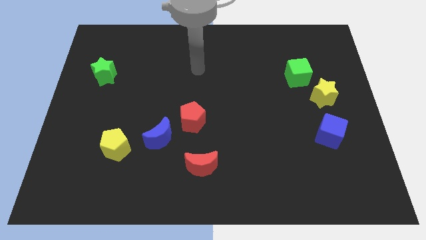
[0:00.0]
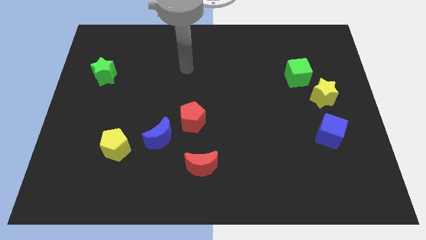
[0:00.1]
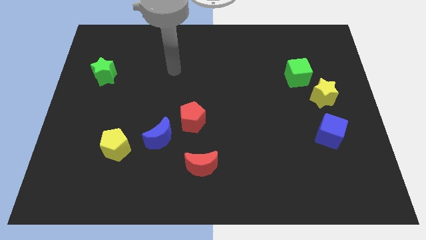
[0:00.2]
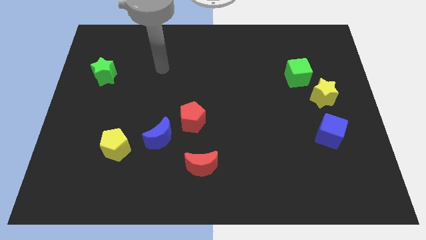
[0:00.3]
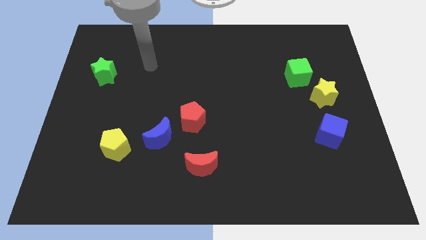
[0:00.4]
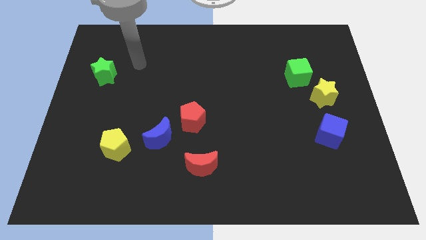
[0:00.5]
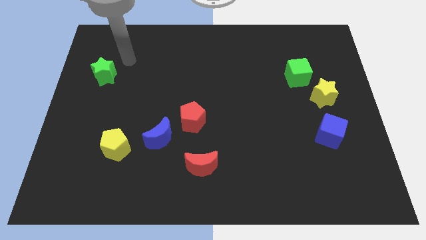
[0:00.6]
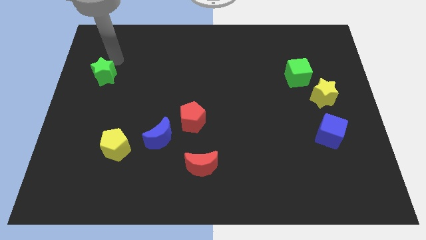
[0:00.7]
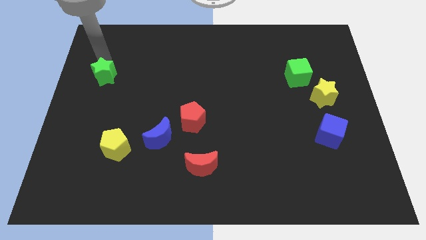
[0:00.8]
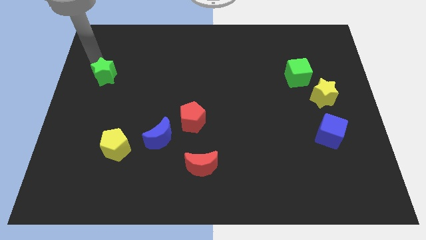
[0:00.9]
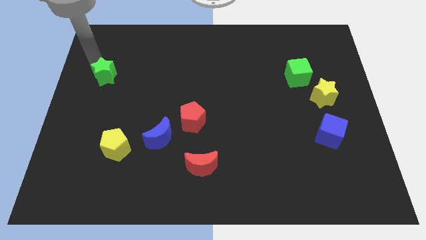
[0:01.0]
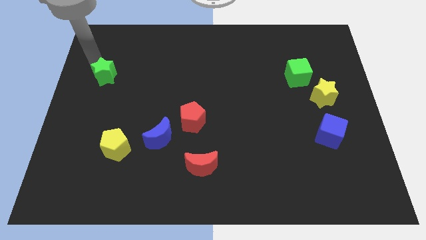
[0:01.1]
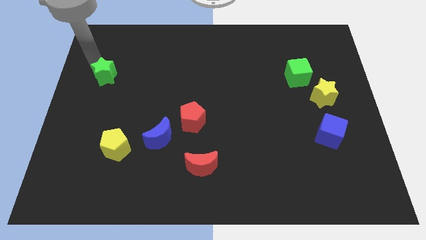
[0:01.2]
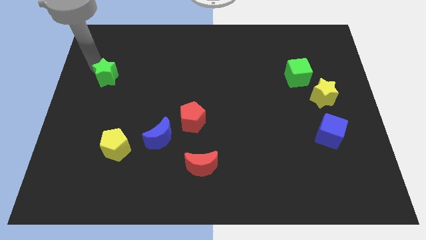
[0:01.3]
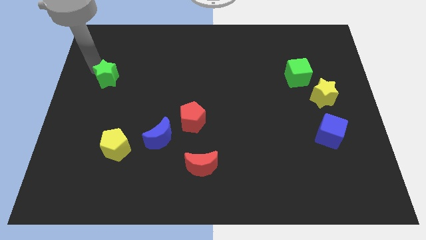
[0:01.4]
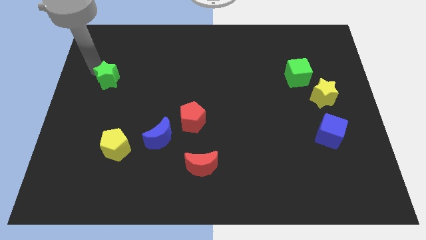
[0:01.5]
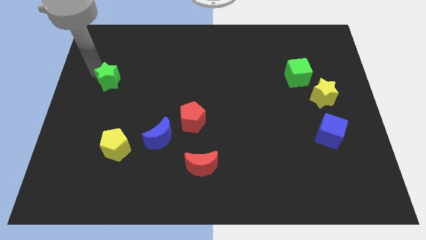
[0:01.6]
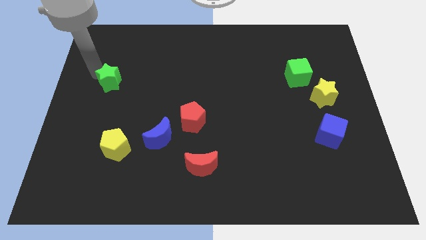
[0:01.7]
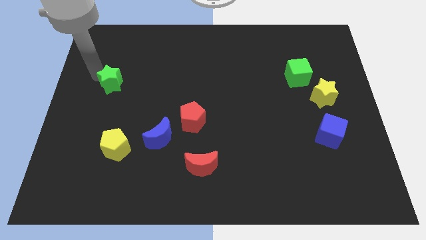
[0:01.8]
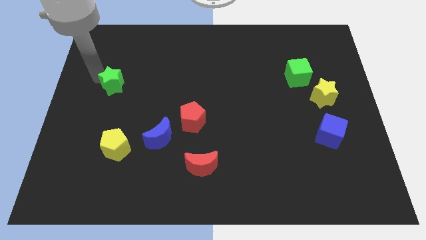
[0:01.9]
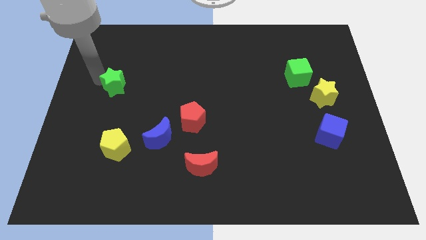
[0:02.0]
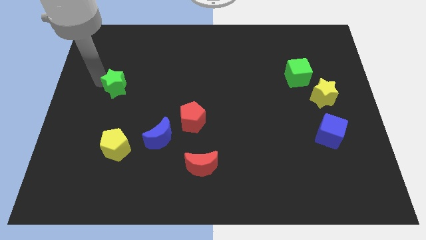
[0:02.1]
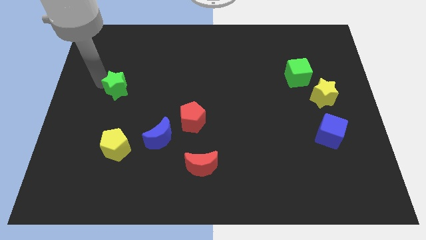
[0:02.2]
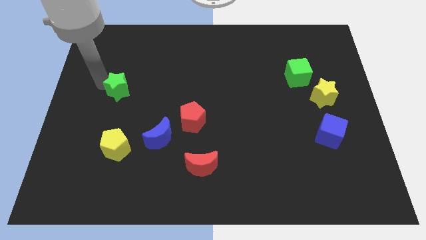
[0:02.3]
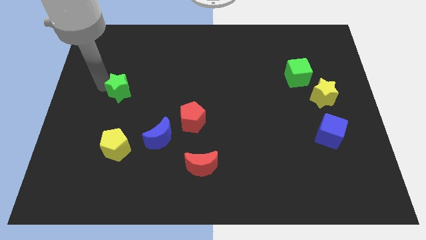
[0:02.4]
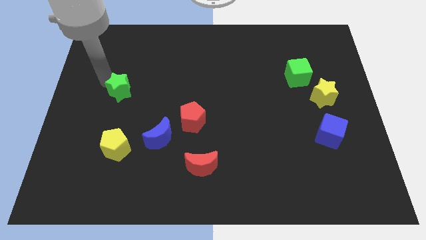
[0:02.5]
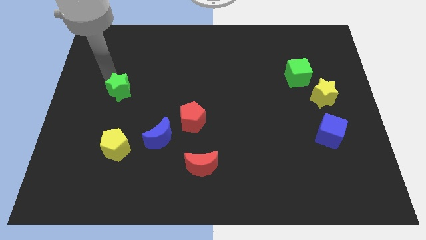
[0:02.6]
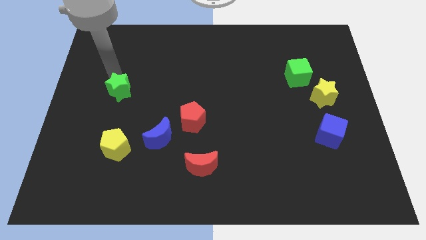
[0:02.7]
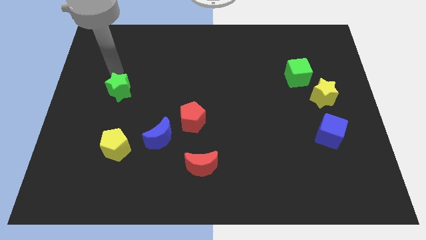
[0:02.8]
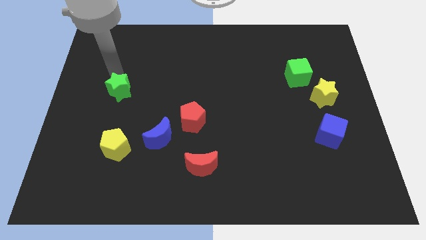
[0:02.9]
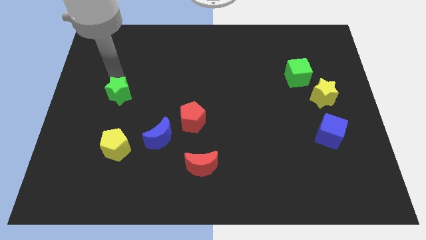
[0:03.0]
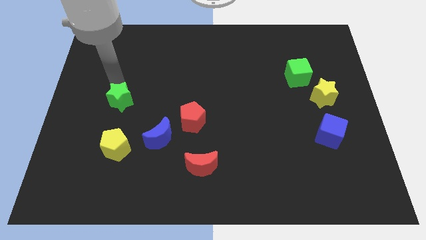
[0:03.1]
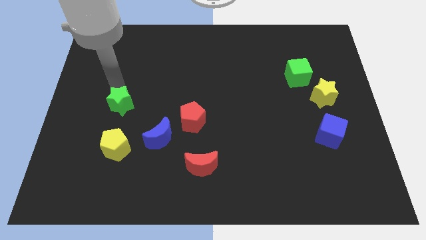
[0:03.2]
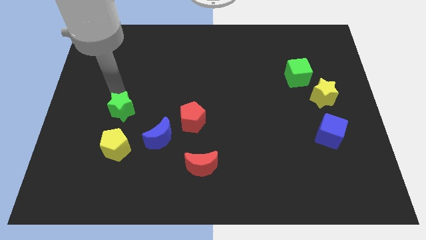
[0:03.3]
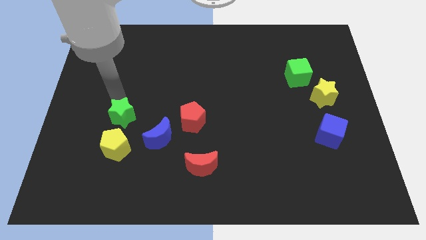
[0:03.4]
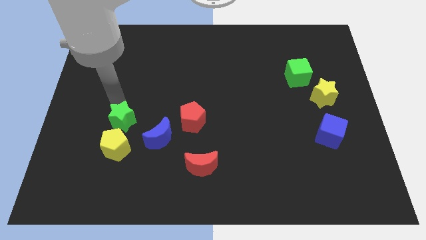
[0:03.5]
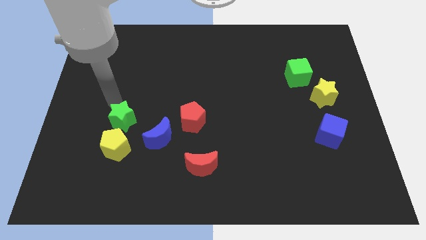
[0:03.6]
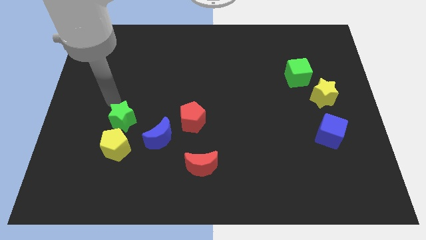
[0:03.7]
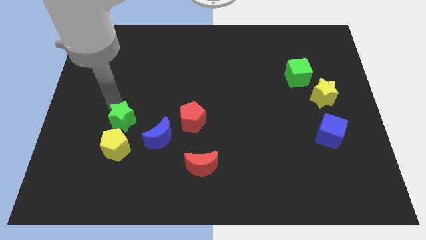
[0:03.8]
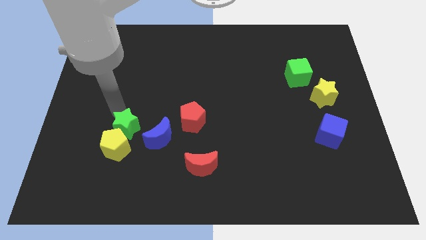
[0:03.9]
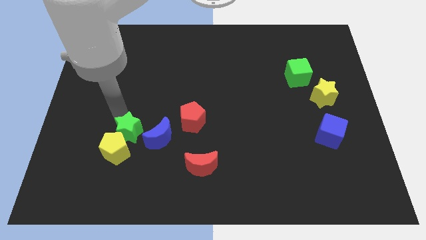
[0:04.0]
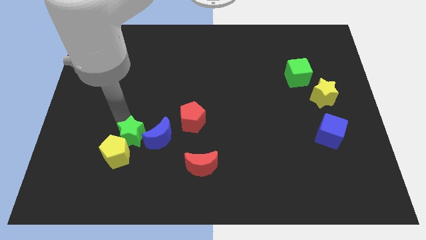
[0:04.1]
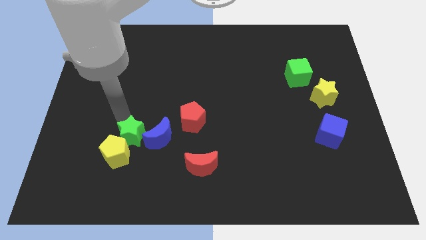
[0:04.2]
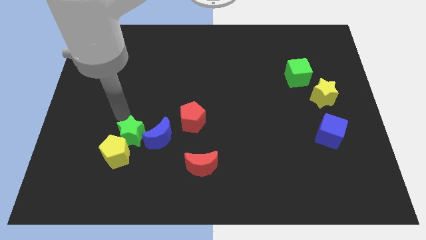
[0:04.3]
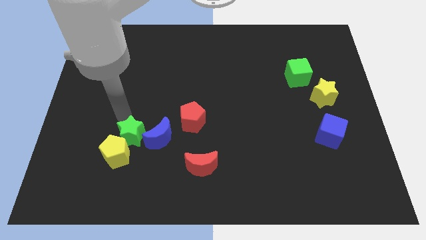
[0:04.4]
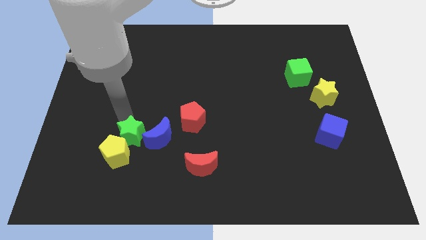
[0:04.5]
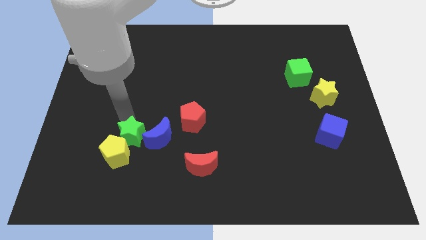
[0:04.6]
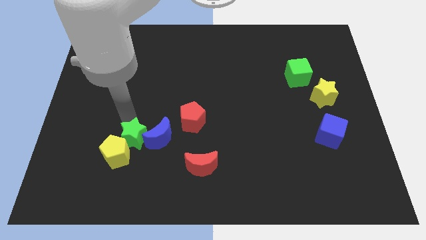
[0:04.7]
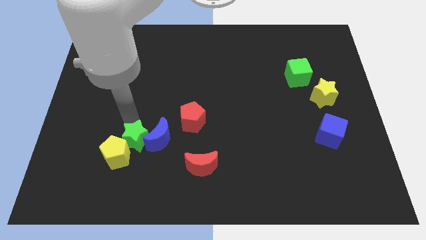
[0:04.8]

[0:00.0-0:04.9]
slide the green star down and then right

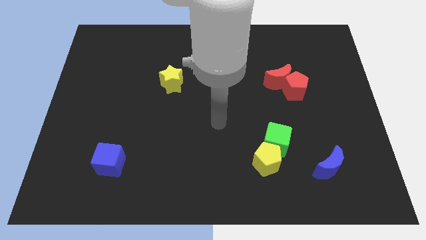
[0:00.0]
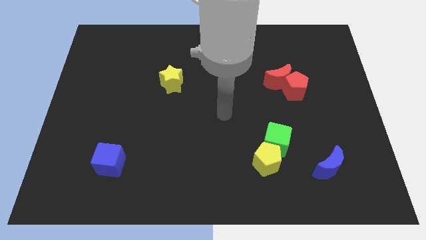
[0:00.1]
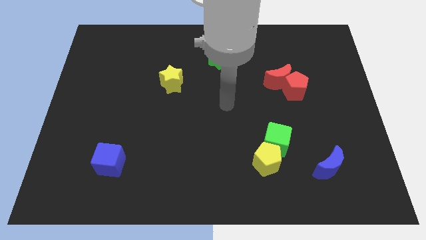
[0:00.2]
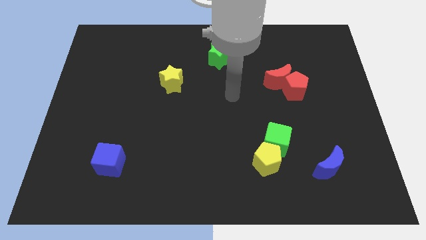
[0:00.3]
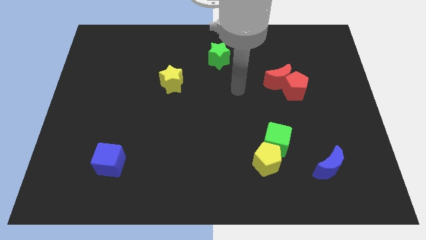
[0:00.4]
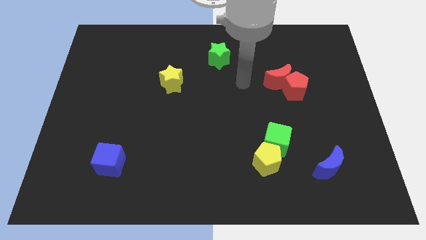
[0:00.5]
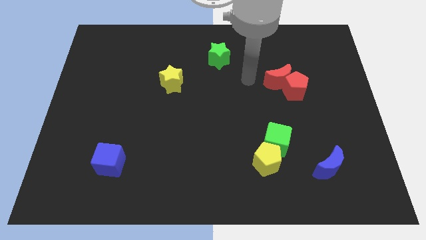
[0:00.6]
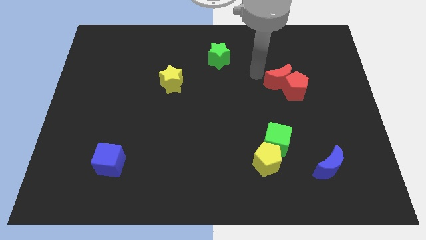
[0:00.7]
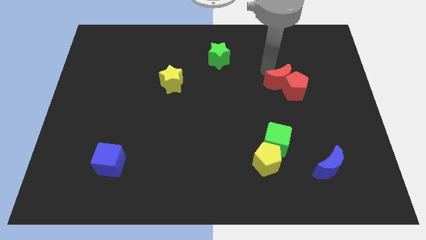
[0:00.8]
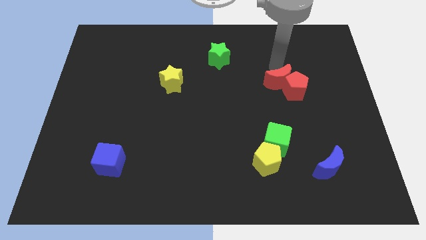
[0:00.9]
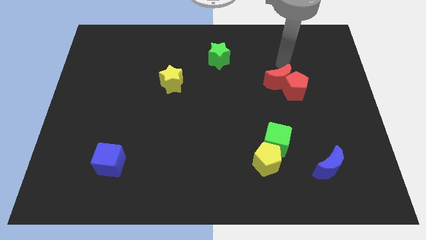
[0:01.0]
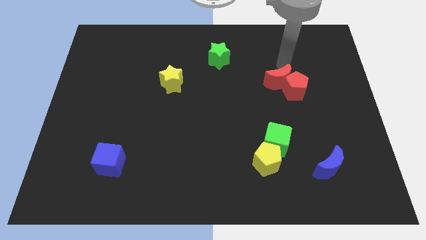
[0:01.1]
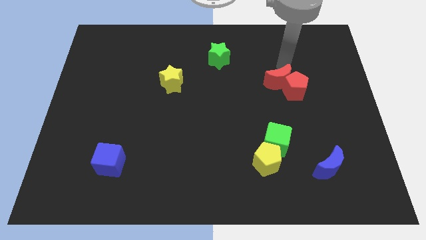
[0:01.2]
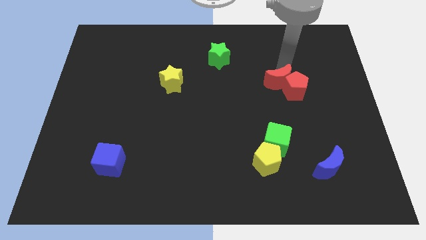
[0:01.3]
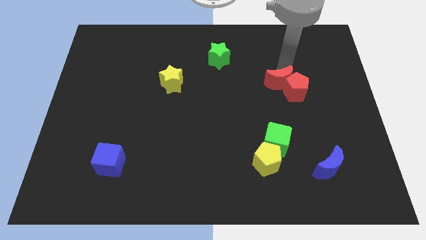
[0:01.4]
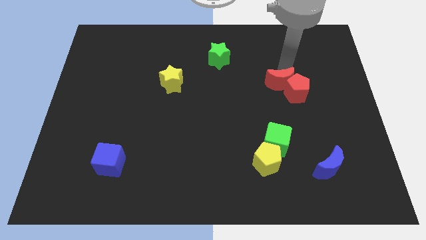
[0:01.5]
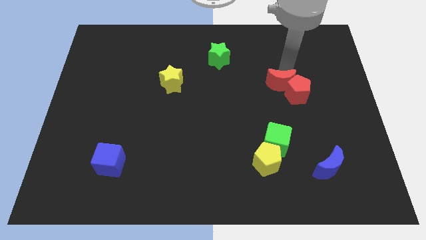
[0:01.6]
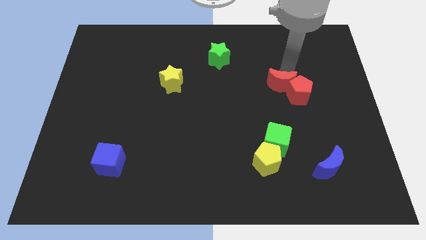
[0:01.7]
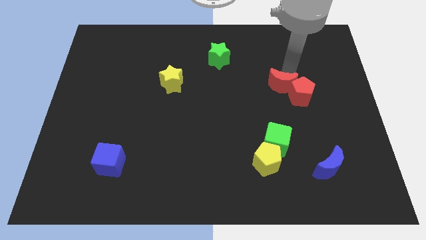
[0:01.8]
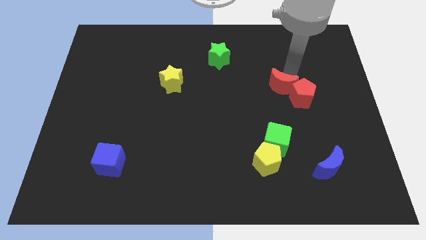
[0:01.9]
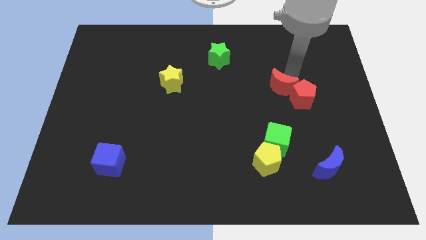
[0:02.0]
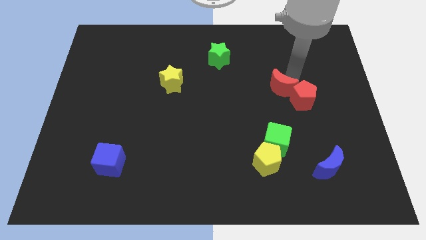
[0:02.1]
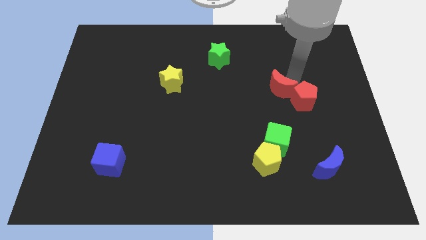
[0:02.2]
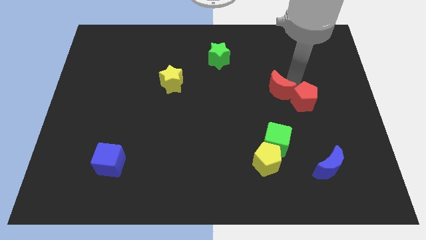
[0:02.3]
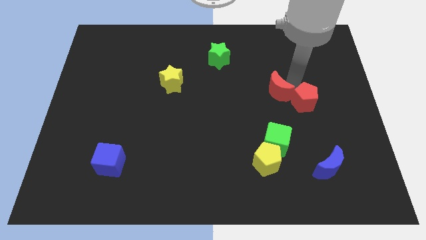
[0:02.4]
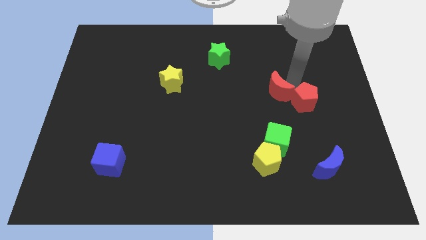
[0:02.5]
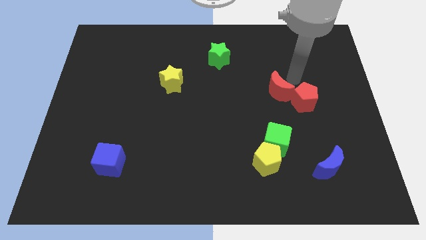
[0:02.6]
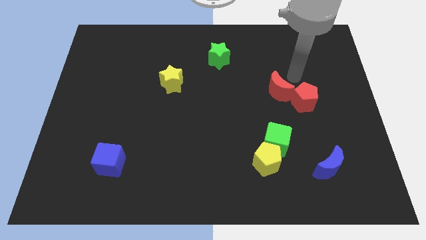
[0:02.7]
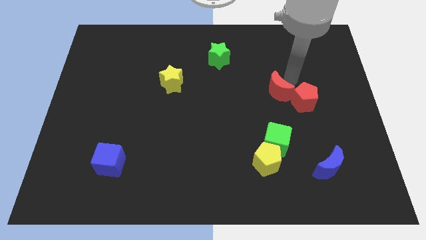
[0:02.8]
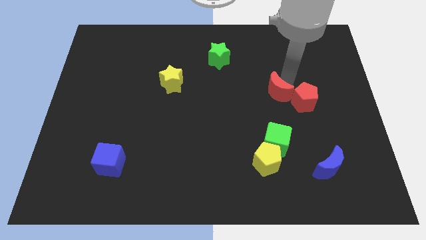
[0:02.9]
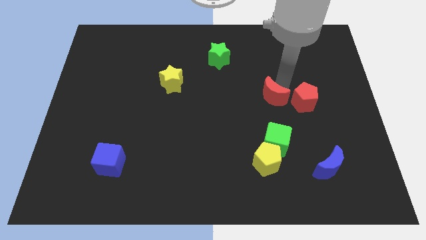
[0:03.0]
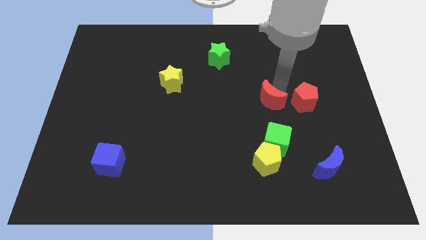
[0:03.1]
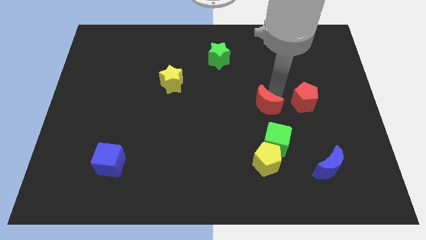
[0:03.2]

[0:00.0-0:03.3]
slightly slide the red moon down and left diagonally
